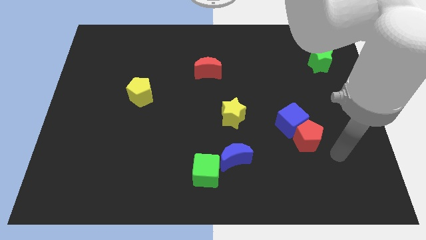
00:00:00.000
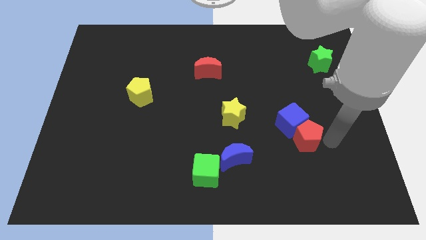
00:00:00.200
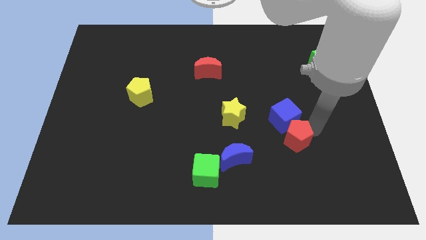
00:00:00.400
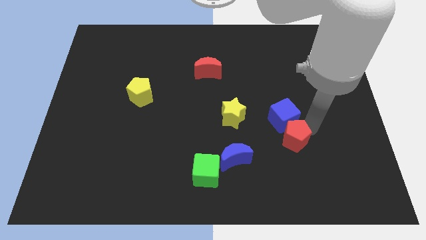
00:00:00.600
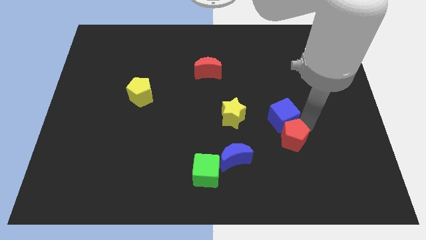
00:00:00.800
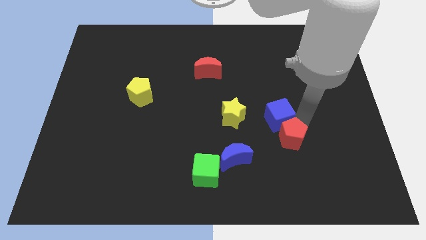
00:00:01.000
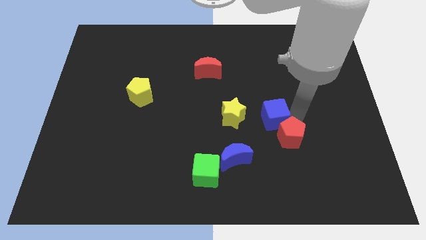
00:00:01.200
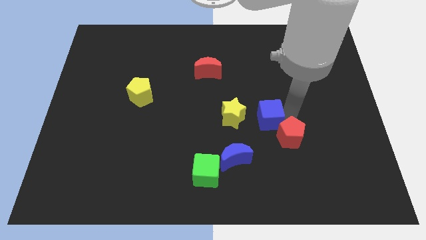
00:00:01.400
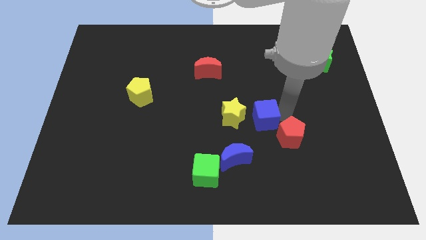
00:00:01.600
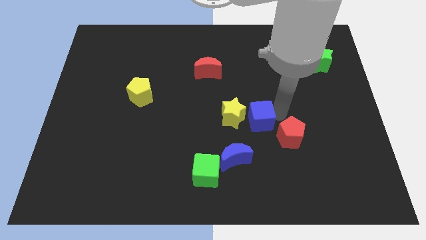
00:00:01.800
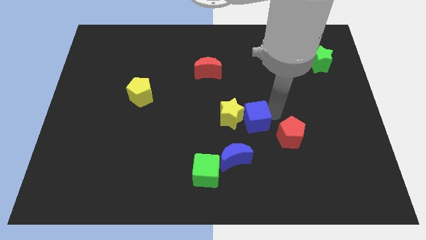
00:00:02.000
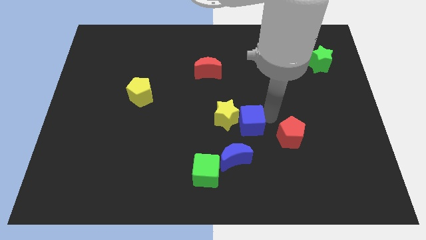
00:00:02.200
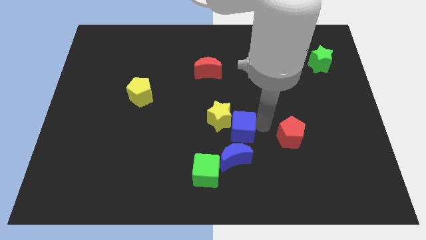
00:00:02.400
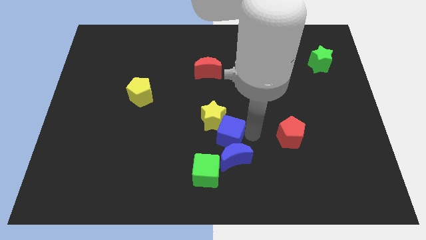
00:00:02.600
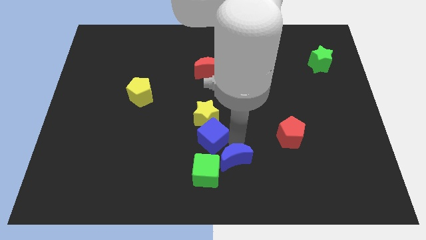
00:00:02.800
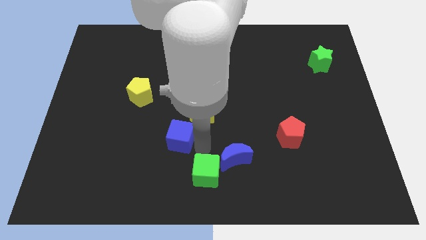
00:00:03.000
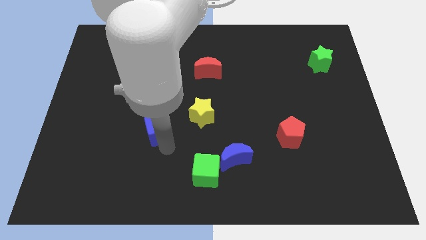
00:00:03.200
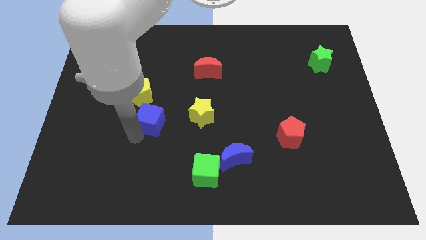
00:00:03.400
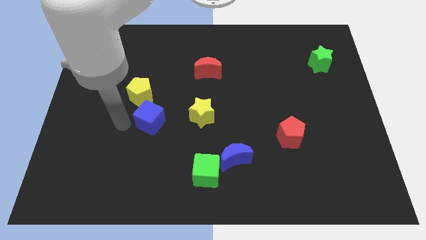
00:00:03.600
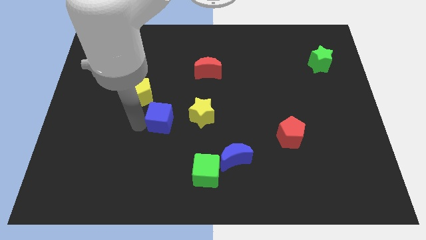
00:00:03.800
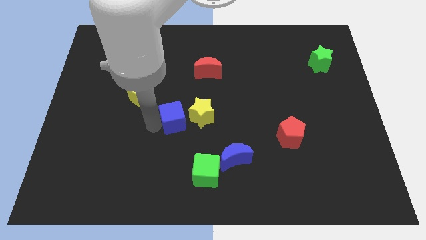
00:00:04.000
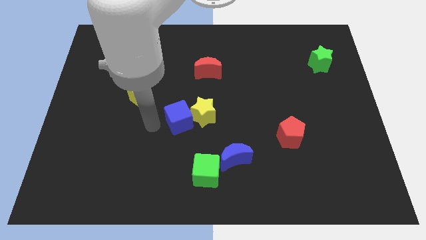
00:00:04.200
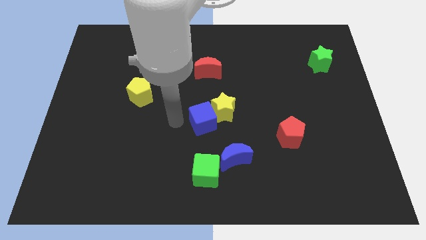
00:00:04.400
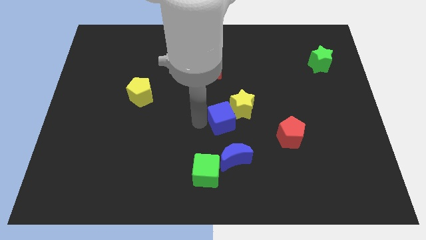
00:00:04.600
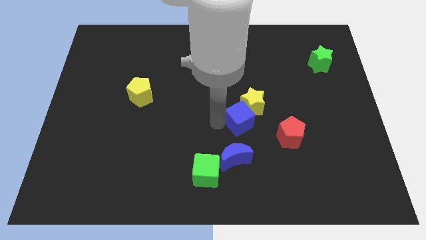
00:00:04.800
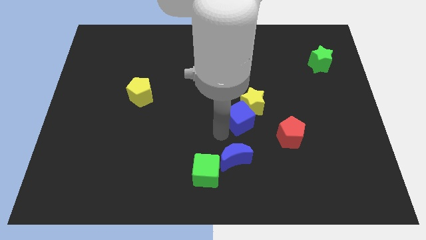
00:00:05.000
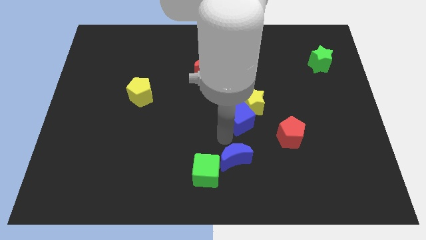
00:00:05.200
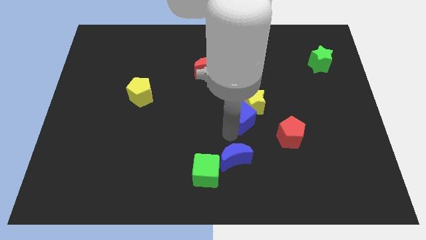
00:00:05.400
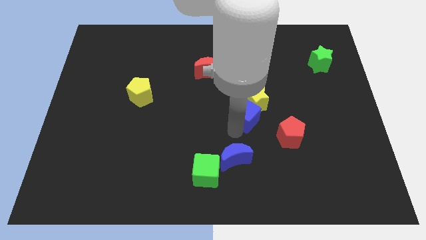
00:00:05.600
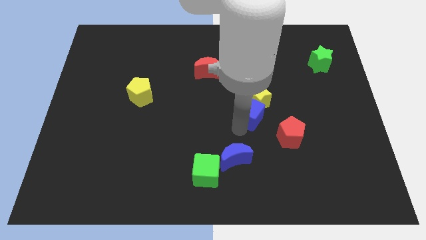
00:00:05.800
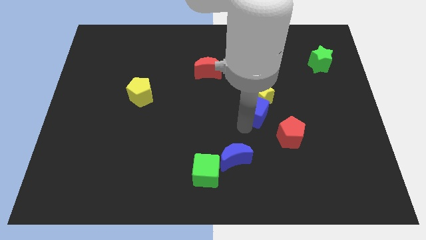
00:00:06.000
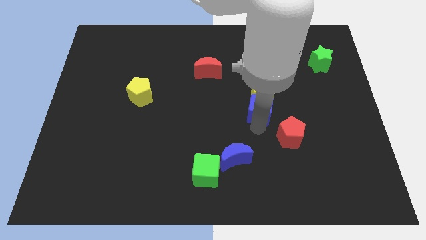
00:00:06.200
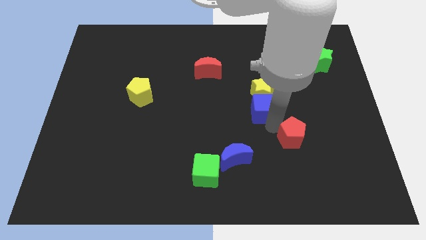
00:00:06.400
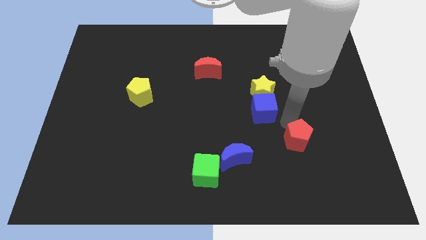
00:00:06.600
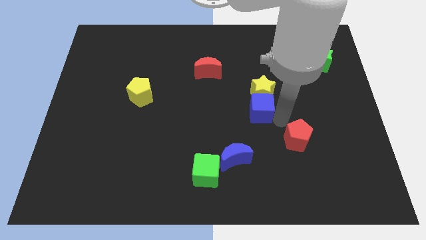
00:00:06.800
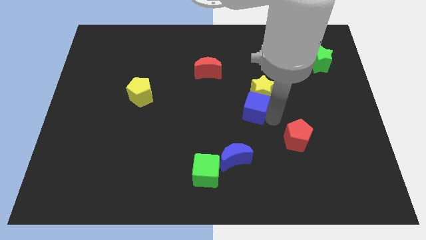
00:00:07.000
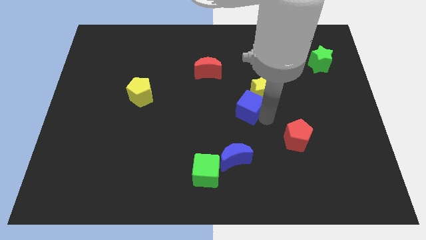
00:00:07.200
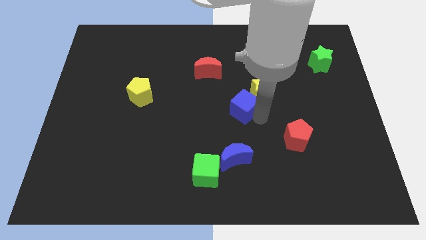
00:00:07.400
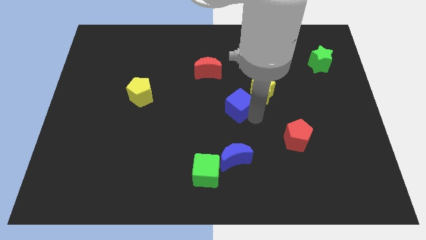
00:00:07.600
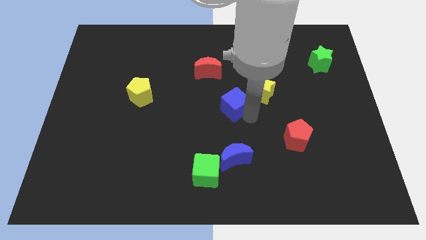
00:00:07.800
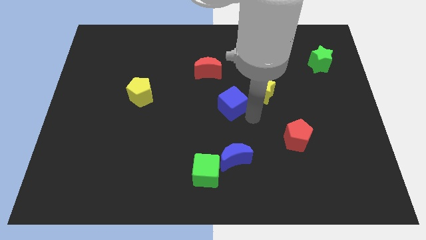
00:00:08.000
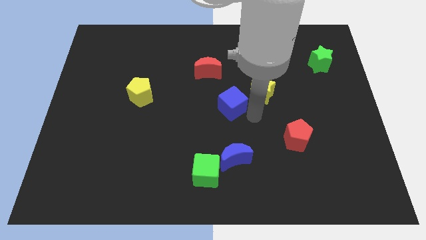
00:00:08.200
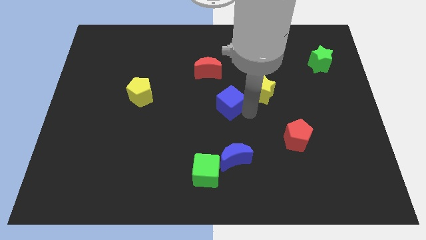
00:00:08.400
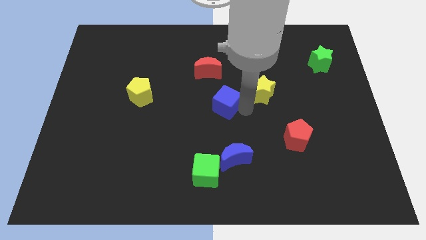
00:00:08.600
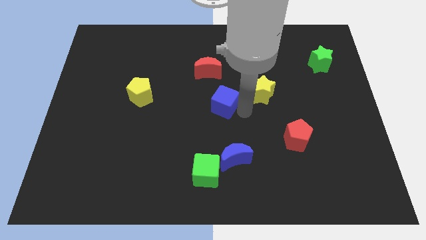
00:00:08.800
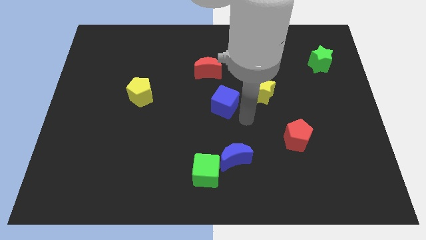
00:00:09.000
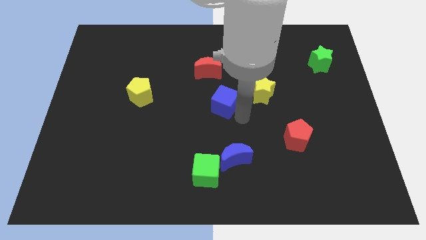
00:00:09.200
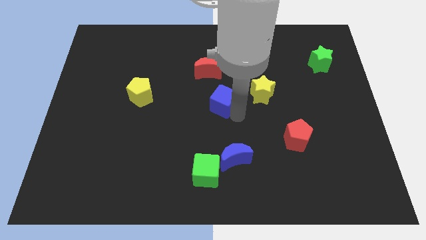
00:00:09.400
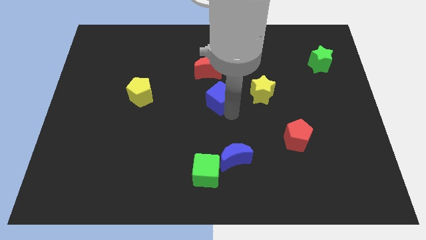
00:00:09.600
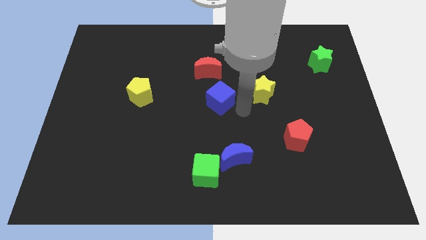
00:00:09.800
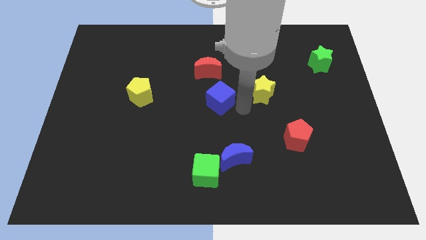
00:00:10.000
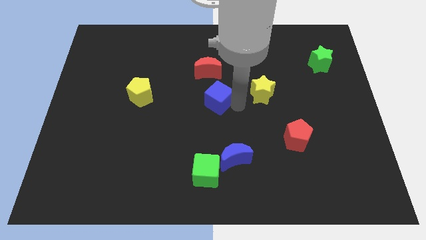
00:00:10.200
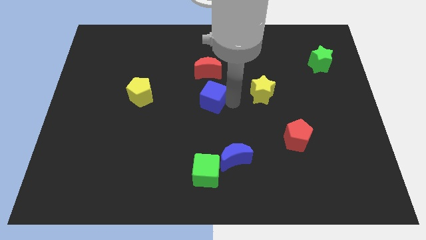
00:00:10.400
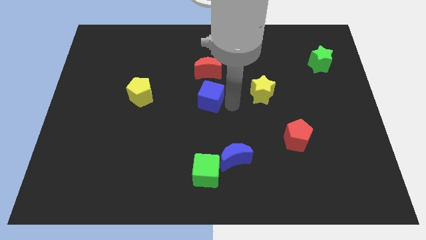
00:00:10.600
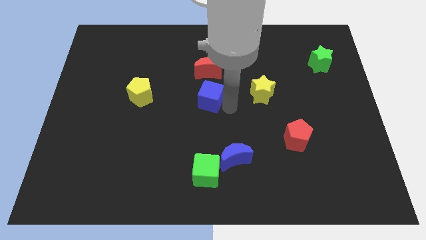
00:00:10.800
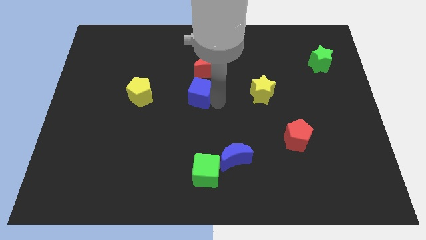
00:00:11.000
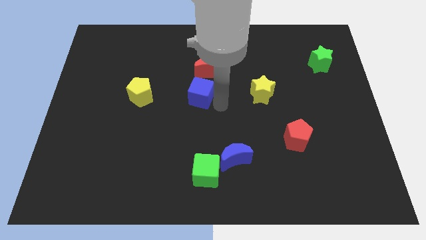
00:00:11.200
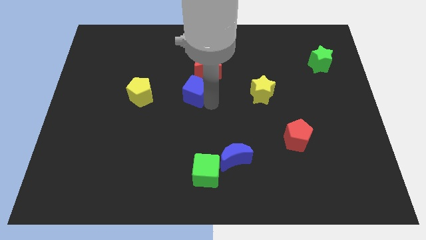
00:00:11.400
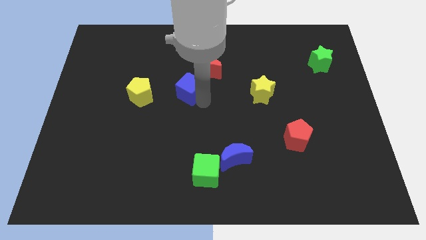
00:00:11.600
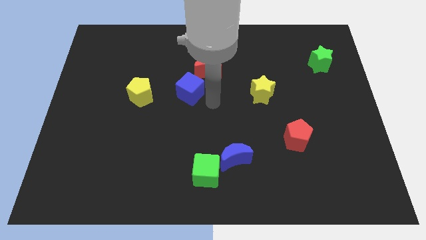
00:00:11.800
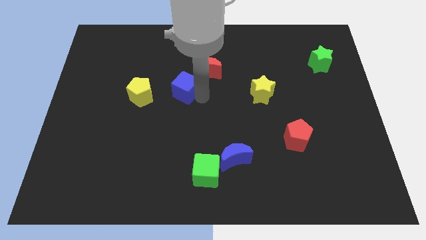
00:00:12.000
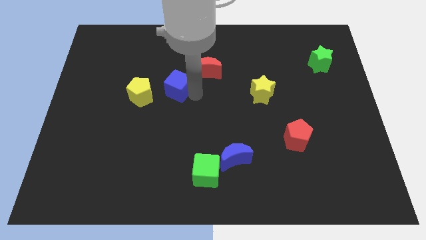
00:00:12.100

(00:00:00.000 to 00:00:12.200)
push the blue cube diagonally up and to the right of the yellow pentagon

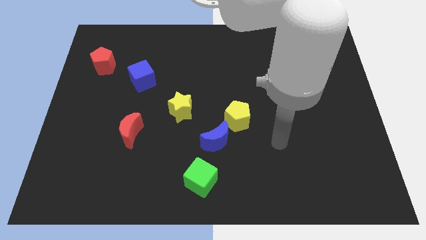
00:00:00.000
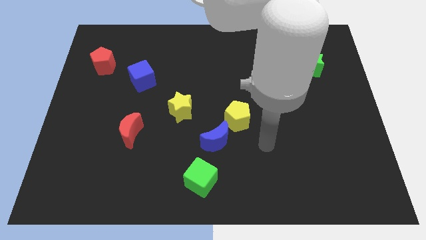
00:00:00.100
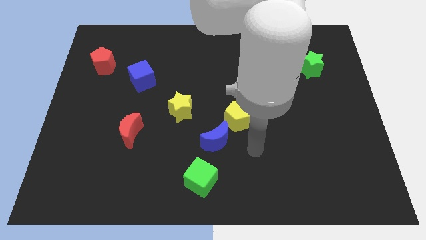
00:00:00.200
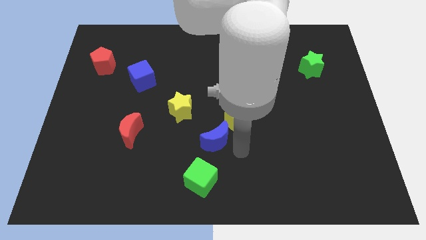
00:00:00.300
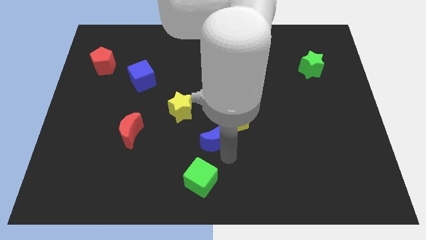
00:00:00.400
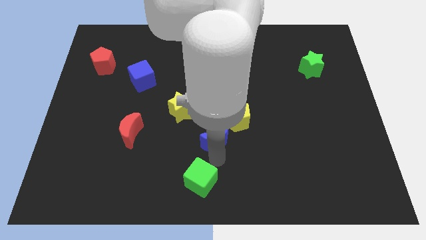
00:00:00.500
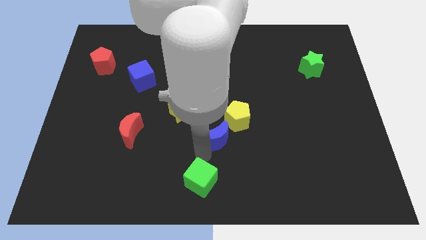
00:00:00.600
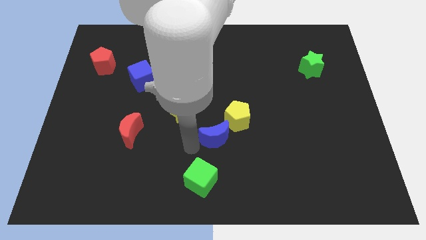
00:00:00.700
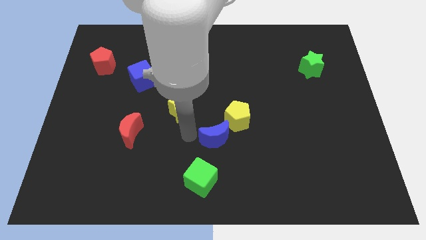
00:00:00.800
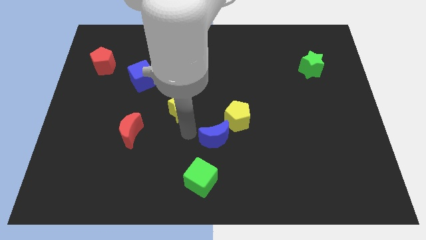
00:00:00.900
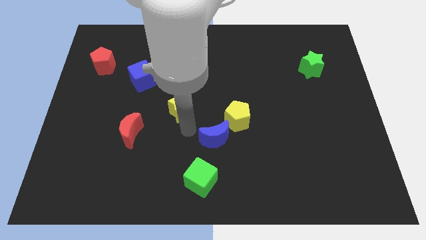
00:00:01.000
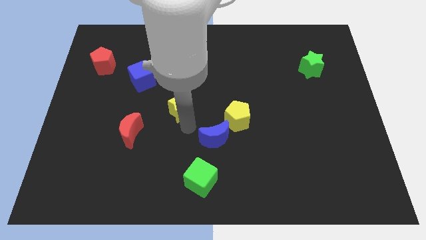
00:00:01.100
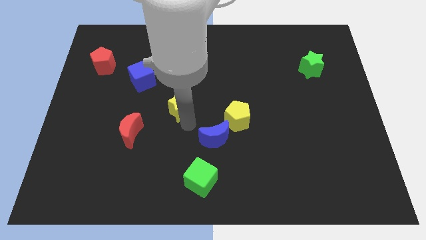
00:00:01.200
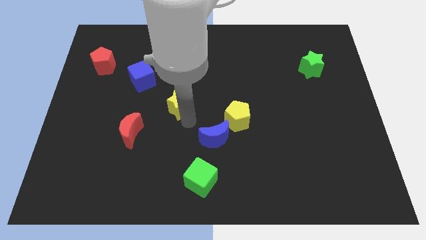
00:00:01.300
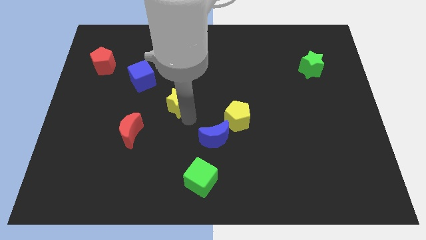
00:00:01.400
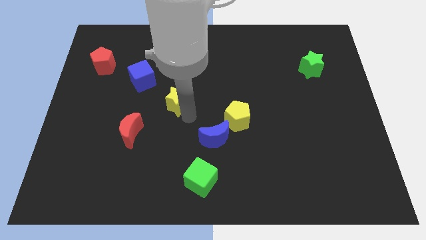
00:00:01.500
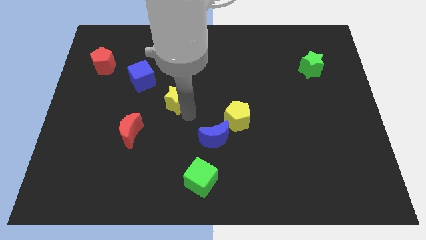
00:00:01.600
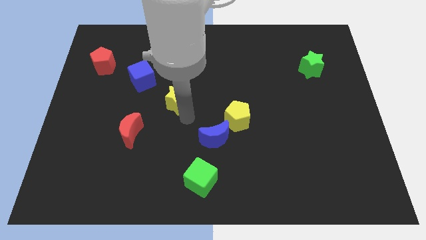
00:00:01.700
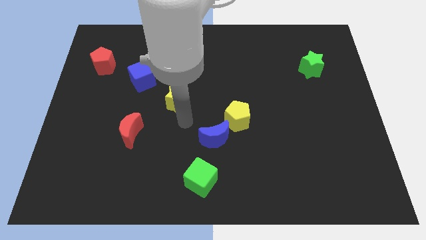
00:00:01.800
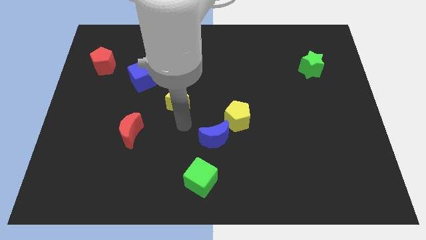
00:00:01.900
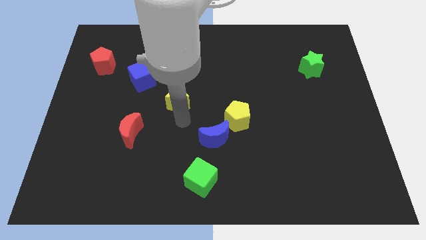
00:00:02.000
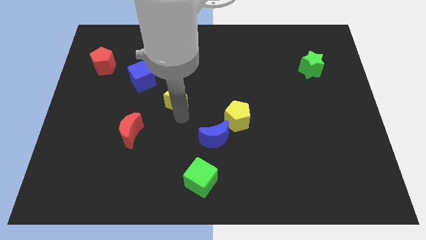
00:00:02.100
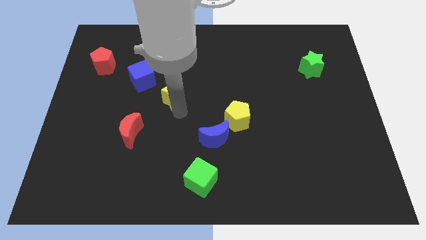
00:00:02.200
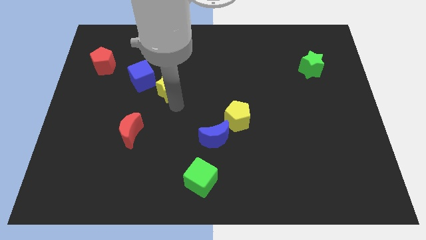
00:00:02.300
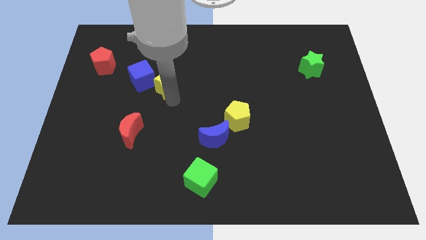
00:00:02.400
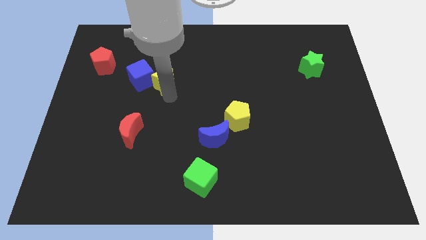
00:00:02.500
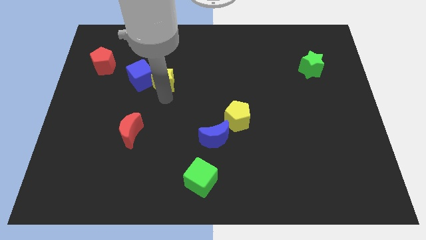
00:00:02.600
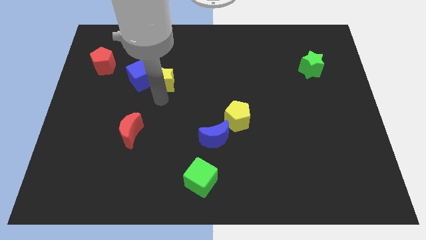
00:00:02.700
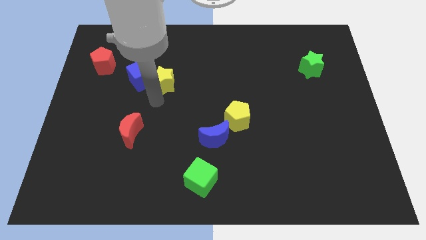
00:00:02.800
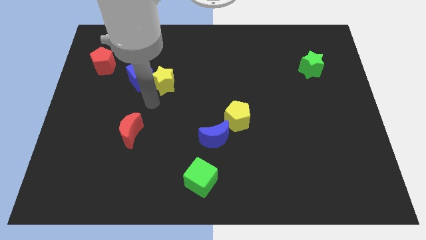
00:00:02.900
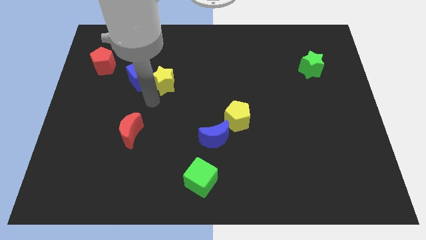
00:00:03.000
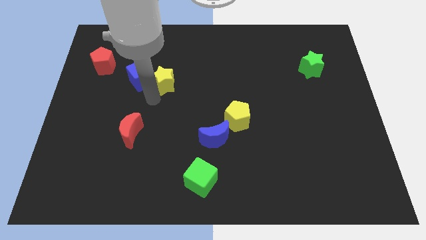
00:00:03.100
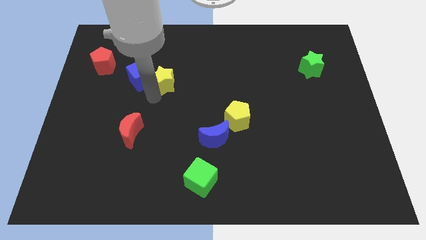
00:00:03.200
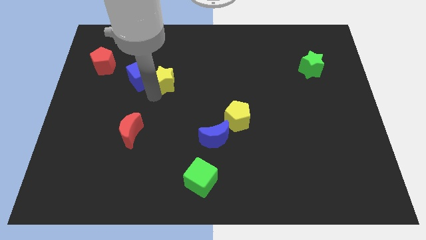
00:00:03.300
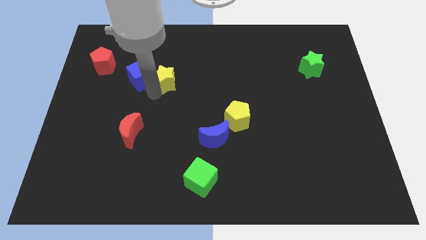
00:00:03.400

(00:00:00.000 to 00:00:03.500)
move the yellow star diagonally up and to the right of the blue cube
